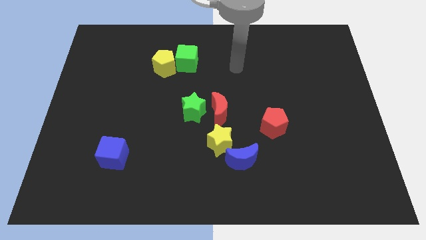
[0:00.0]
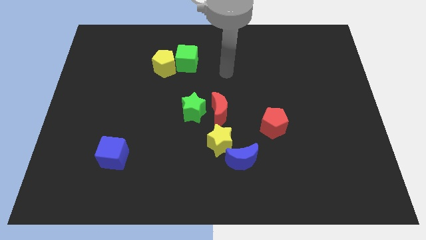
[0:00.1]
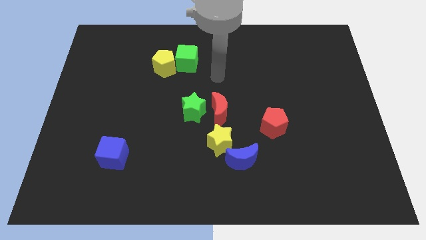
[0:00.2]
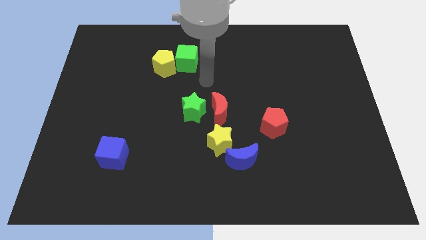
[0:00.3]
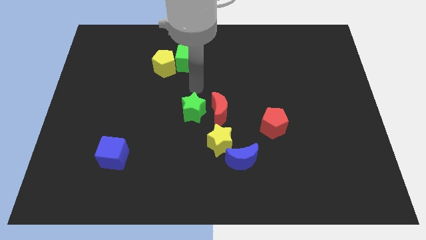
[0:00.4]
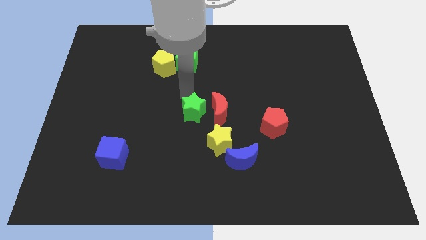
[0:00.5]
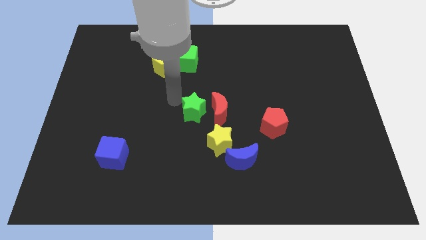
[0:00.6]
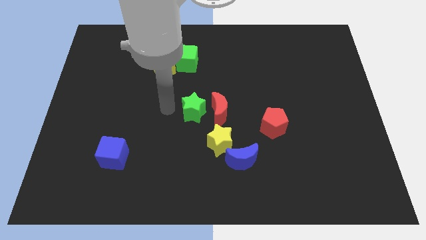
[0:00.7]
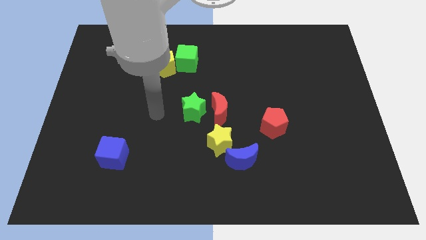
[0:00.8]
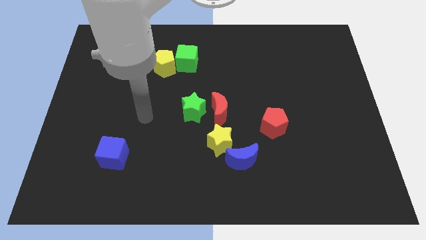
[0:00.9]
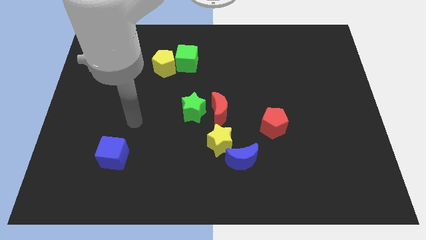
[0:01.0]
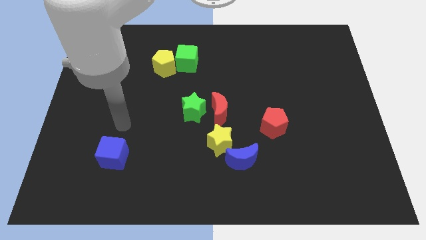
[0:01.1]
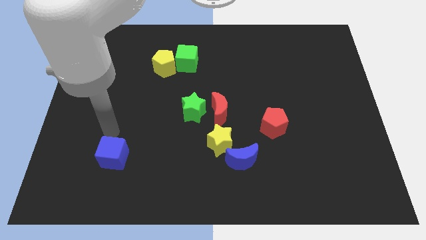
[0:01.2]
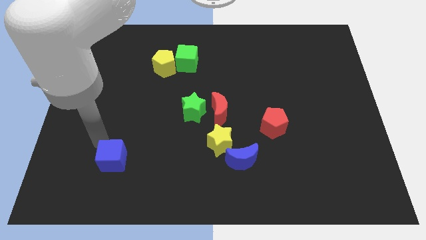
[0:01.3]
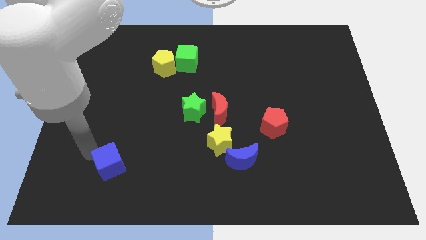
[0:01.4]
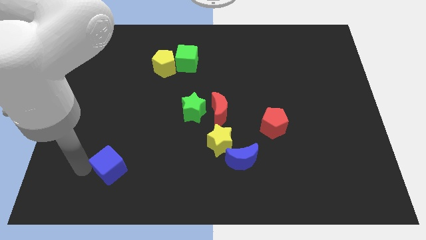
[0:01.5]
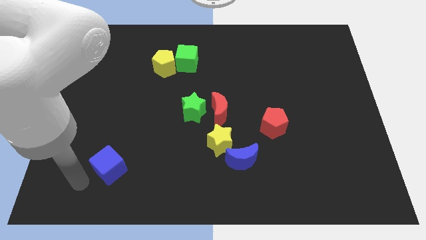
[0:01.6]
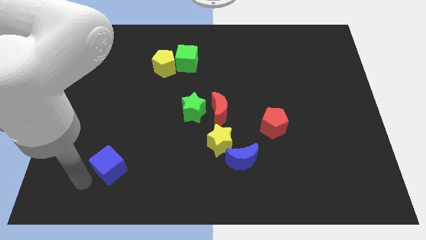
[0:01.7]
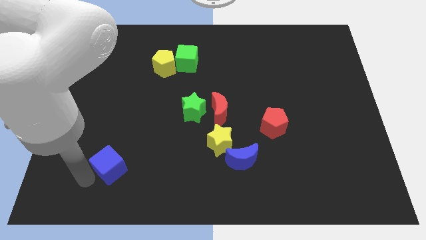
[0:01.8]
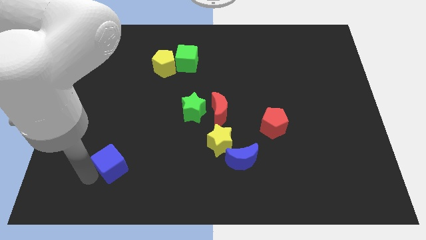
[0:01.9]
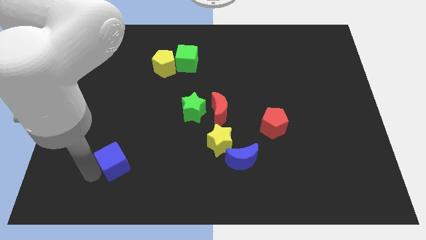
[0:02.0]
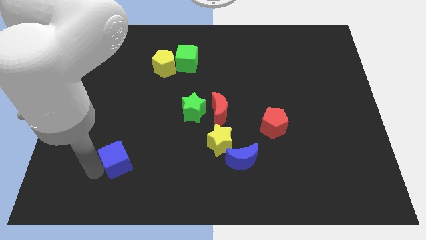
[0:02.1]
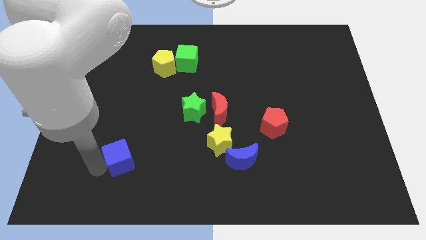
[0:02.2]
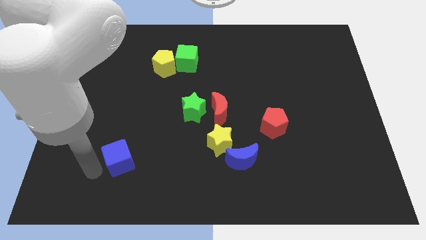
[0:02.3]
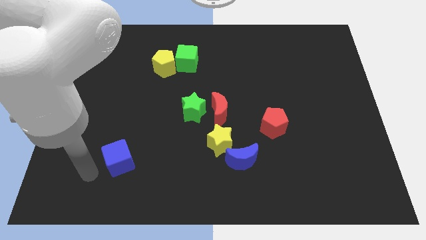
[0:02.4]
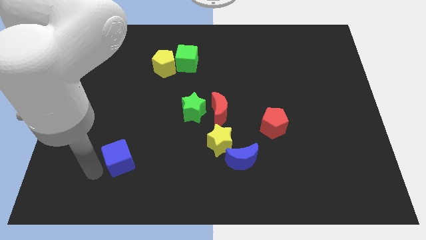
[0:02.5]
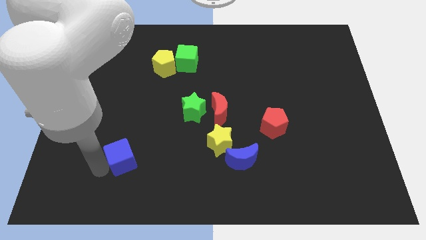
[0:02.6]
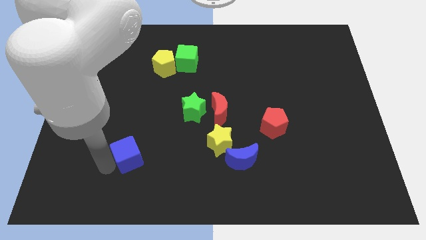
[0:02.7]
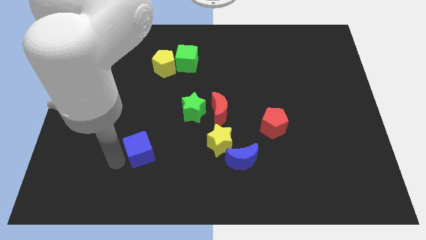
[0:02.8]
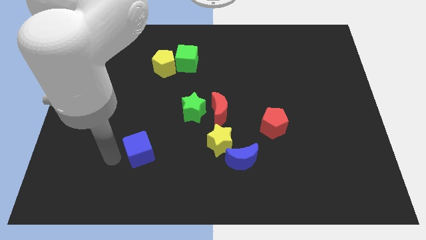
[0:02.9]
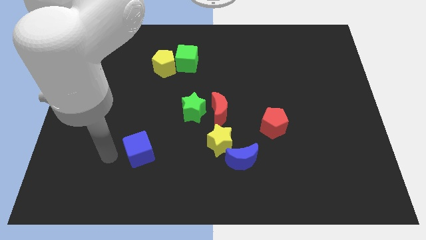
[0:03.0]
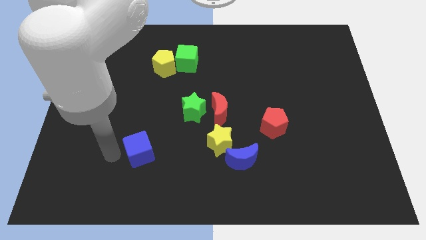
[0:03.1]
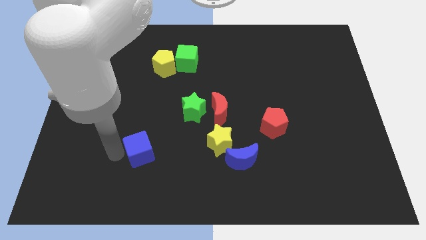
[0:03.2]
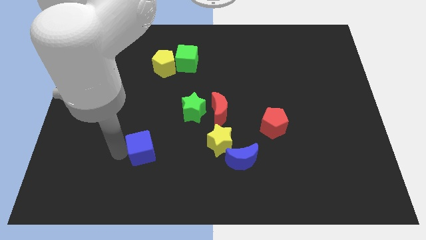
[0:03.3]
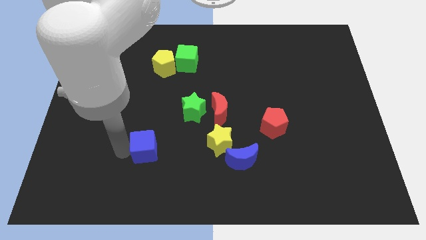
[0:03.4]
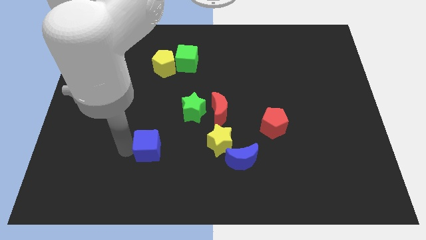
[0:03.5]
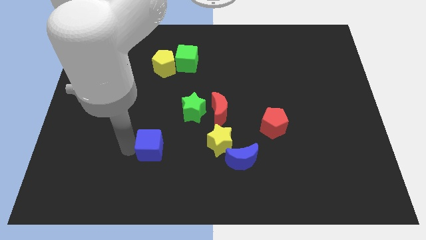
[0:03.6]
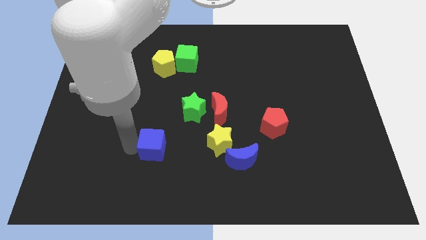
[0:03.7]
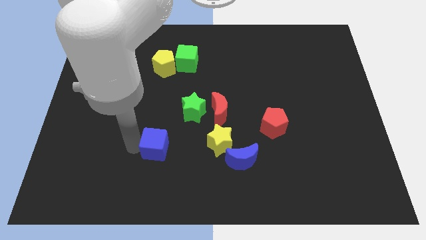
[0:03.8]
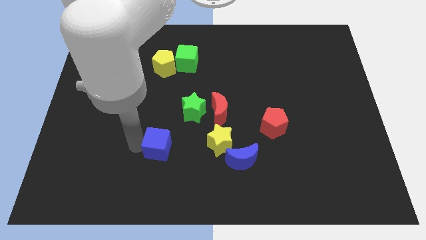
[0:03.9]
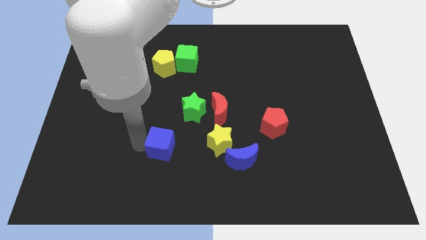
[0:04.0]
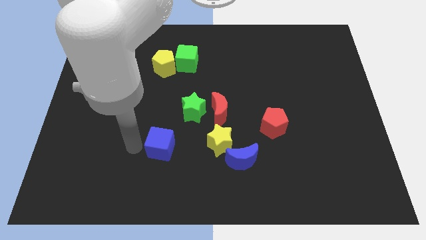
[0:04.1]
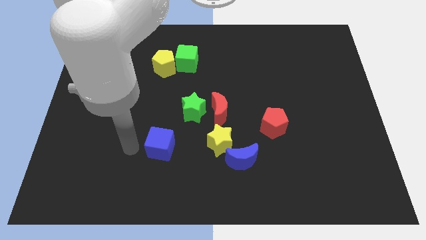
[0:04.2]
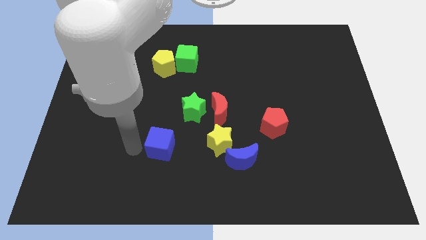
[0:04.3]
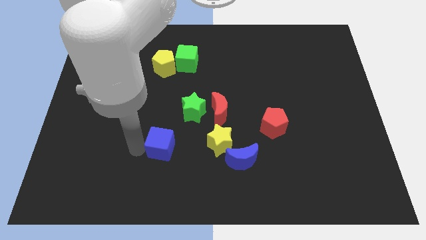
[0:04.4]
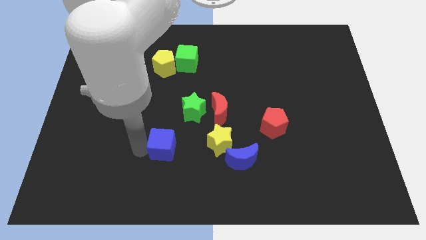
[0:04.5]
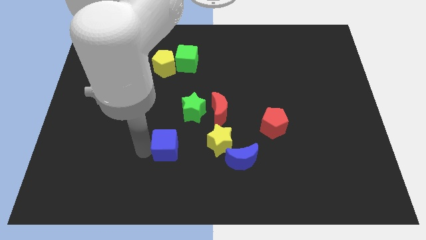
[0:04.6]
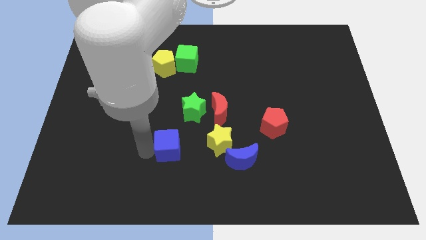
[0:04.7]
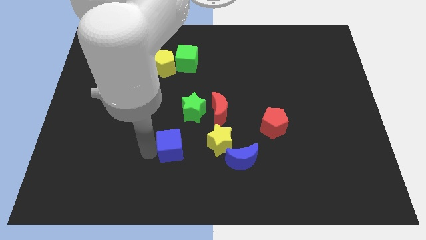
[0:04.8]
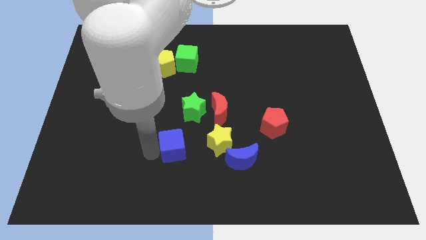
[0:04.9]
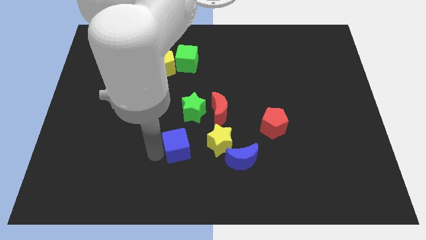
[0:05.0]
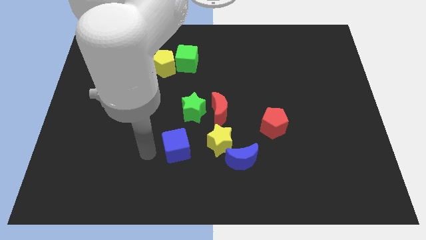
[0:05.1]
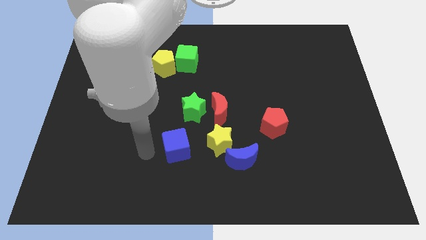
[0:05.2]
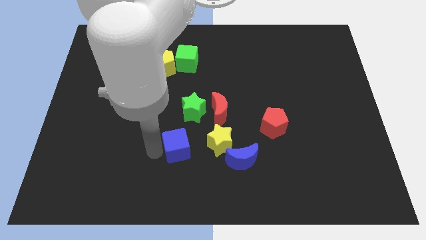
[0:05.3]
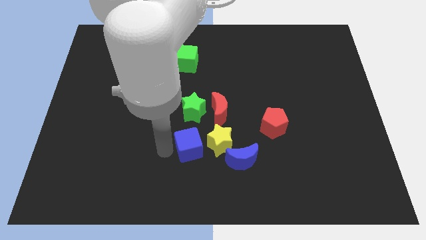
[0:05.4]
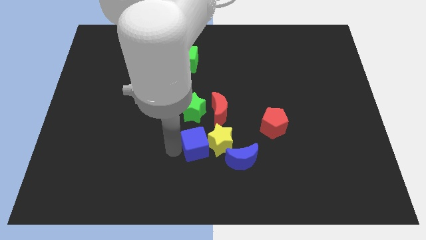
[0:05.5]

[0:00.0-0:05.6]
move the blue cube next to the yellow star

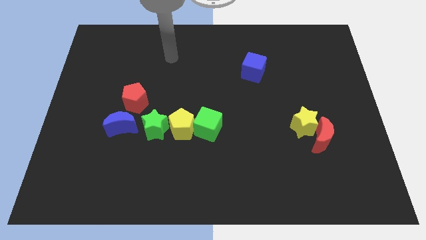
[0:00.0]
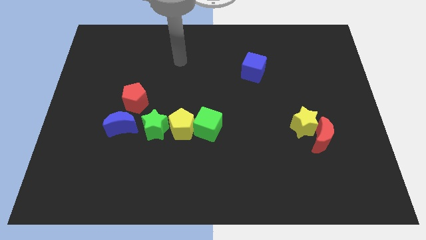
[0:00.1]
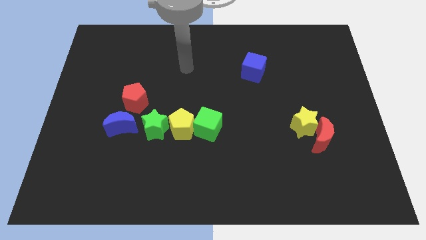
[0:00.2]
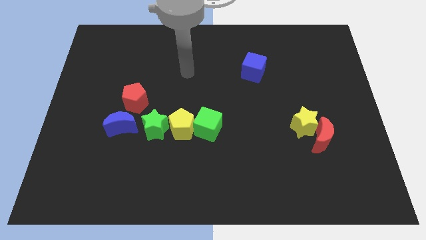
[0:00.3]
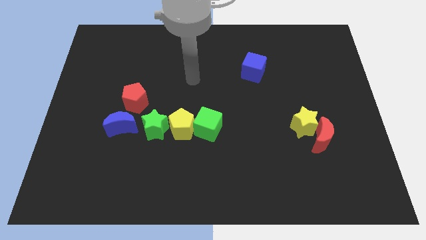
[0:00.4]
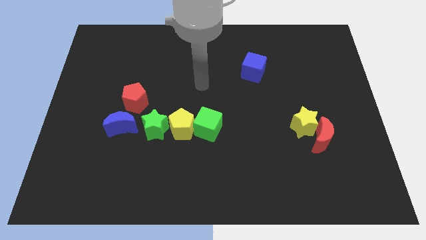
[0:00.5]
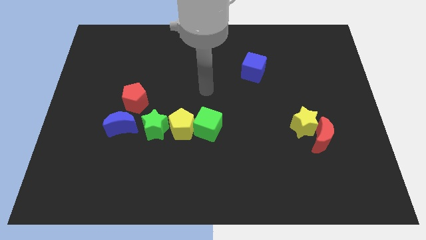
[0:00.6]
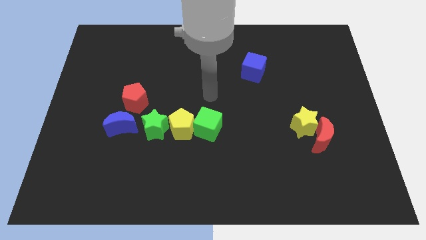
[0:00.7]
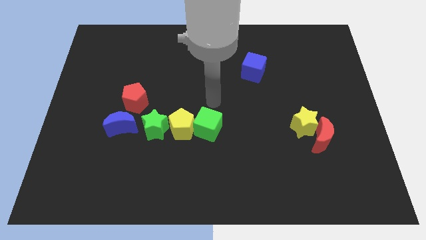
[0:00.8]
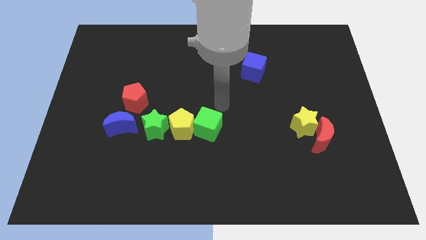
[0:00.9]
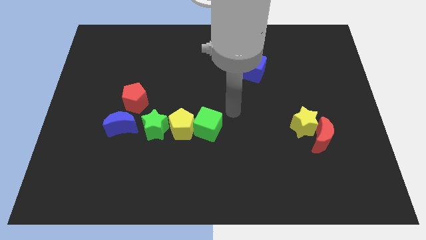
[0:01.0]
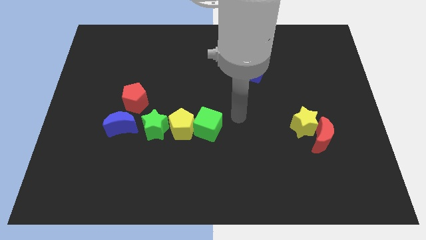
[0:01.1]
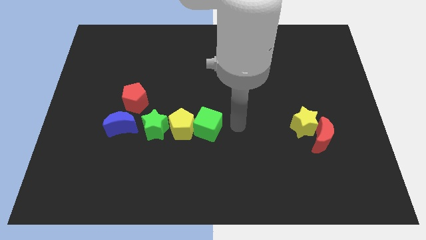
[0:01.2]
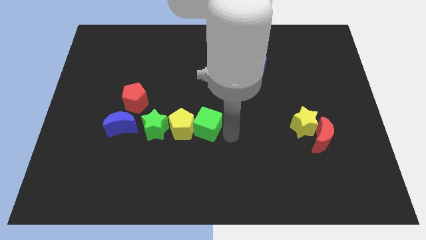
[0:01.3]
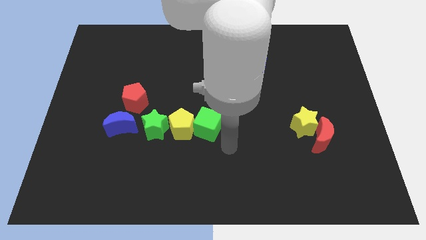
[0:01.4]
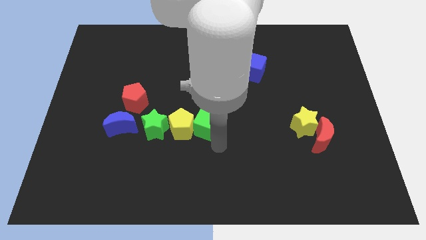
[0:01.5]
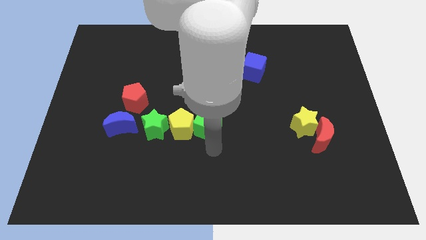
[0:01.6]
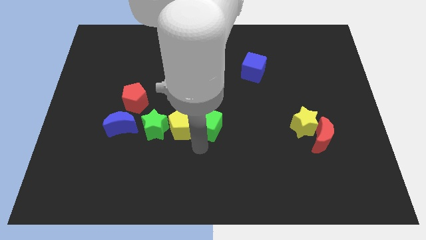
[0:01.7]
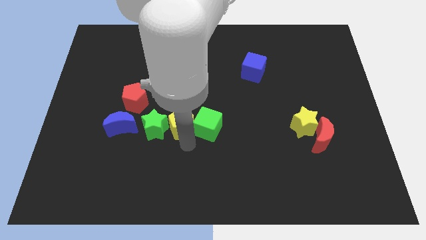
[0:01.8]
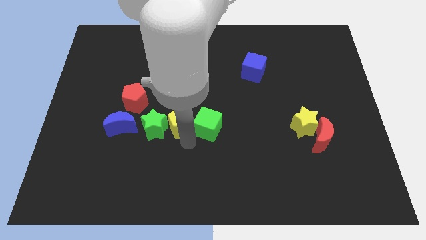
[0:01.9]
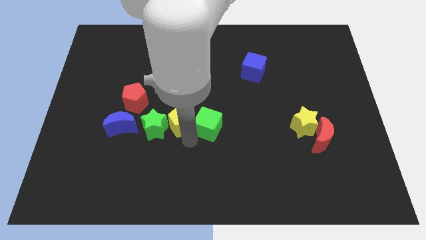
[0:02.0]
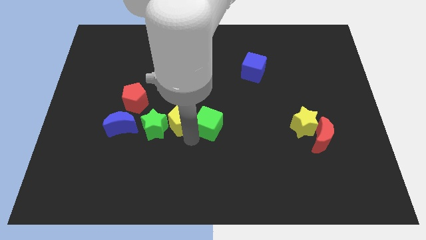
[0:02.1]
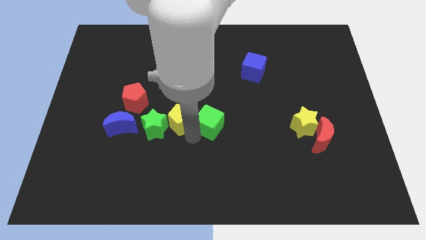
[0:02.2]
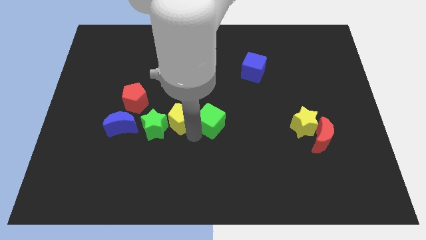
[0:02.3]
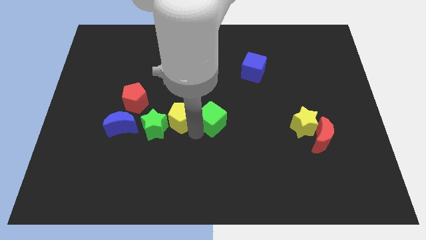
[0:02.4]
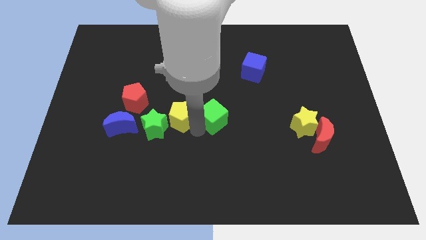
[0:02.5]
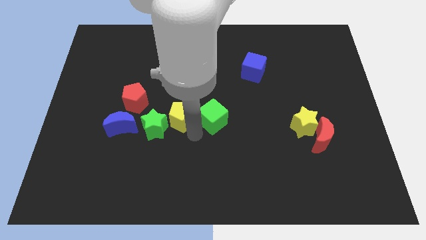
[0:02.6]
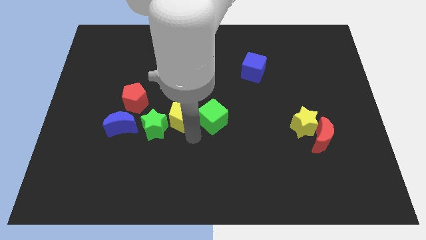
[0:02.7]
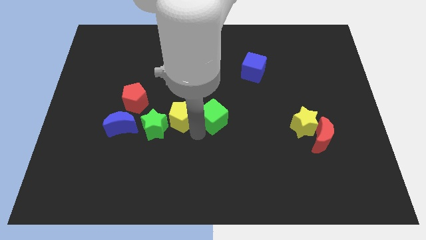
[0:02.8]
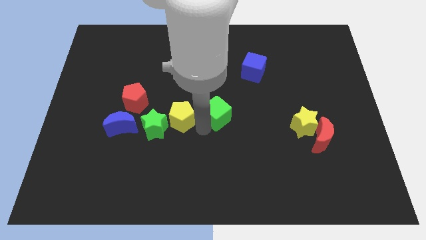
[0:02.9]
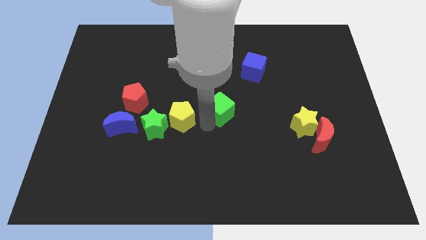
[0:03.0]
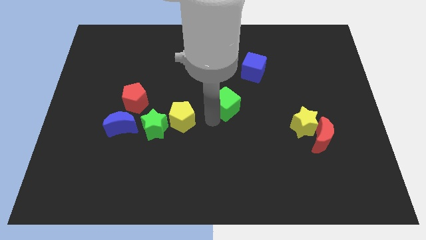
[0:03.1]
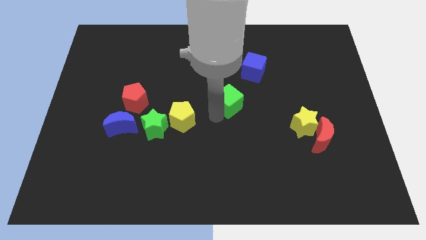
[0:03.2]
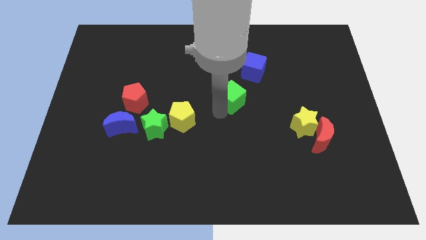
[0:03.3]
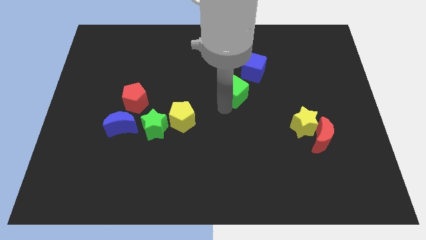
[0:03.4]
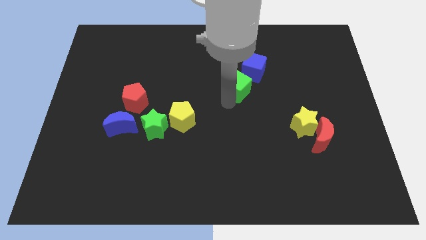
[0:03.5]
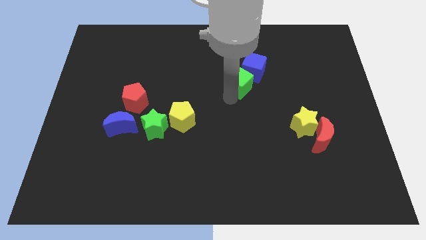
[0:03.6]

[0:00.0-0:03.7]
push the green cube next to the blue cube
